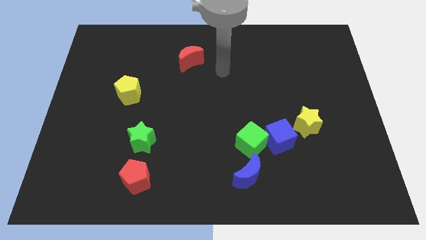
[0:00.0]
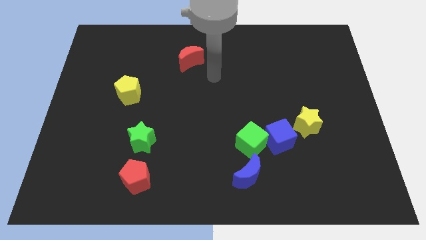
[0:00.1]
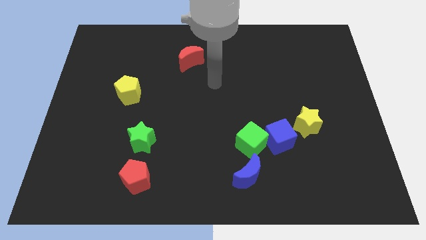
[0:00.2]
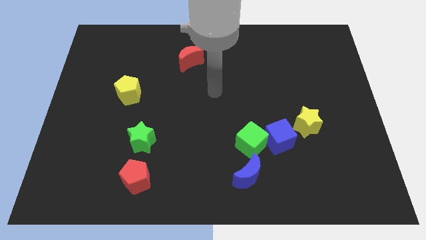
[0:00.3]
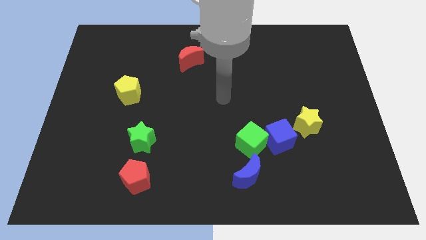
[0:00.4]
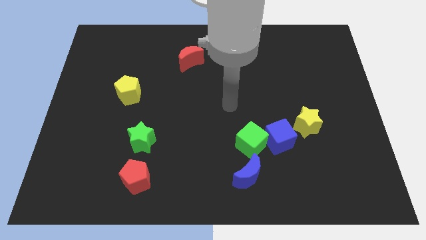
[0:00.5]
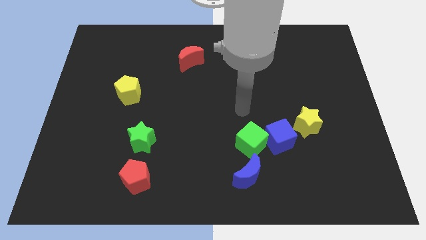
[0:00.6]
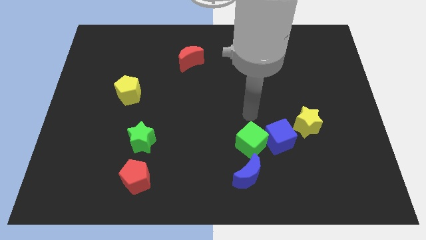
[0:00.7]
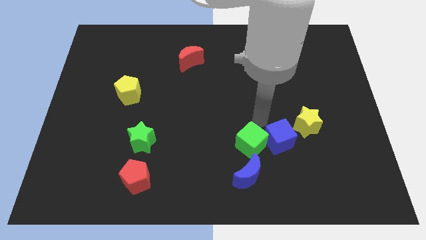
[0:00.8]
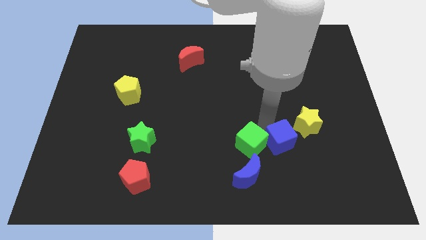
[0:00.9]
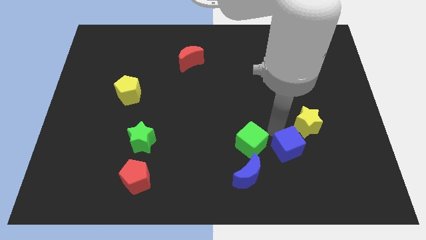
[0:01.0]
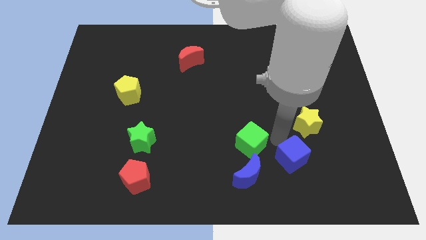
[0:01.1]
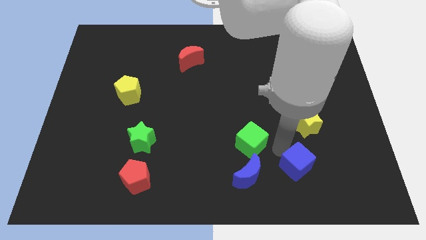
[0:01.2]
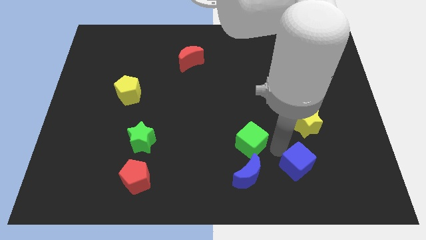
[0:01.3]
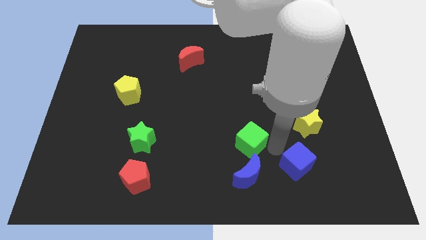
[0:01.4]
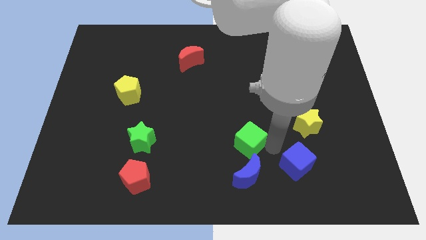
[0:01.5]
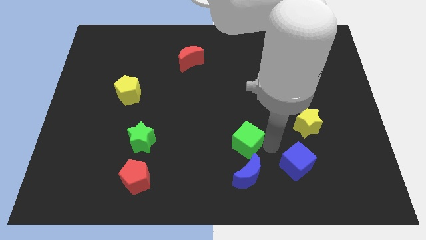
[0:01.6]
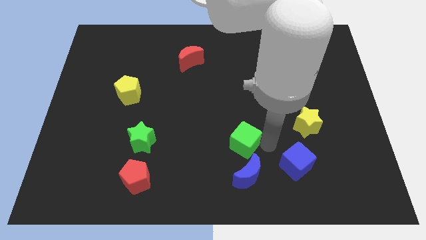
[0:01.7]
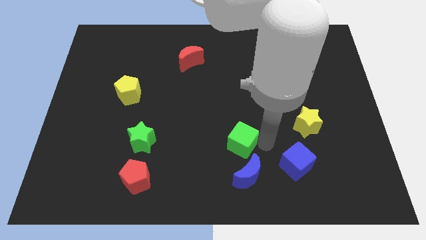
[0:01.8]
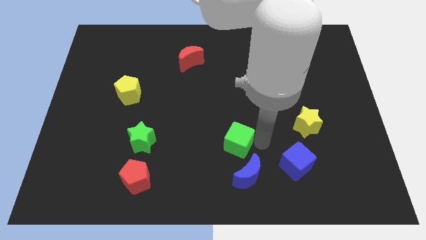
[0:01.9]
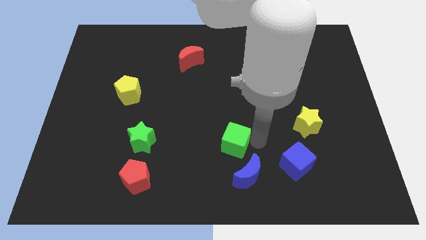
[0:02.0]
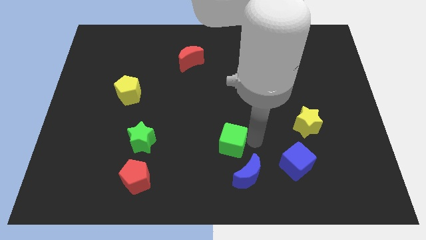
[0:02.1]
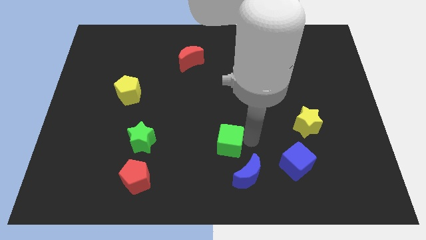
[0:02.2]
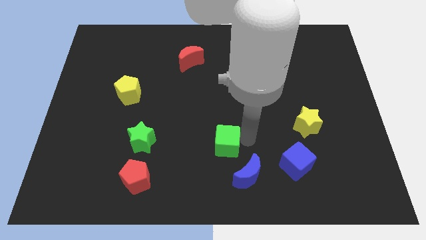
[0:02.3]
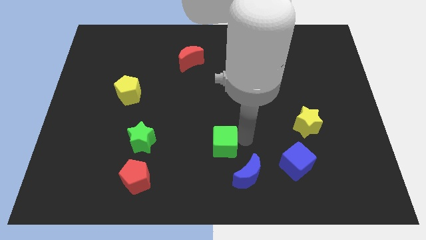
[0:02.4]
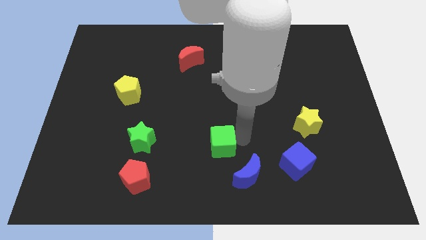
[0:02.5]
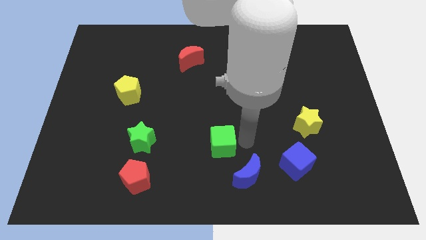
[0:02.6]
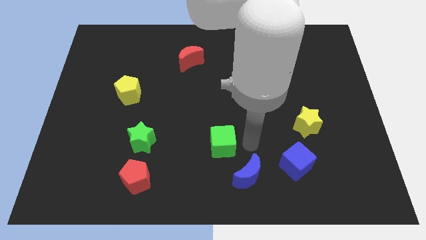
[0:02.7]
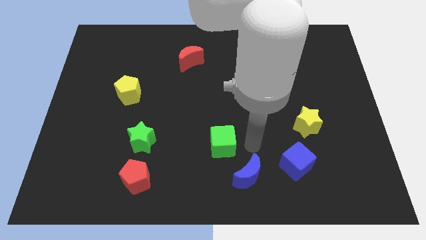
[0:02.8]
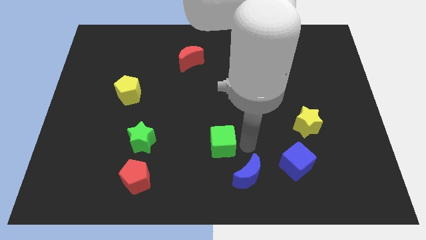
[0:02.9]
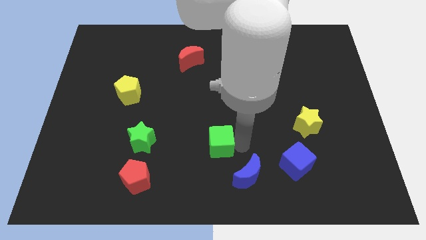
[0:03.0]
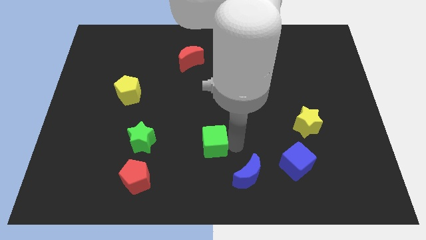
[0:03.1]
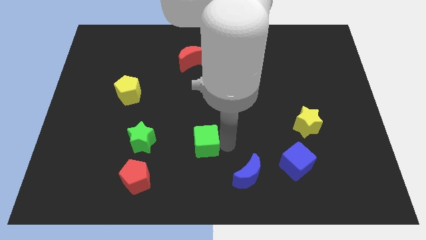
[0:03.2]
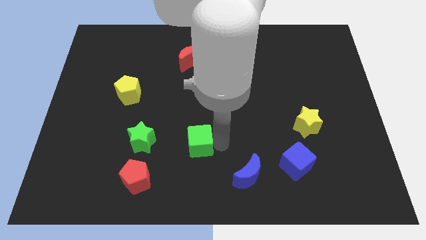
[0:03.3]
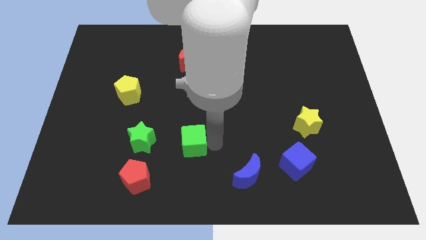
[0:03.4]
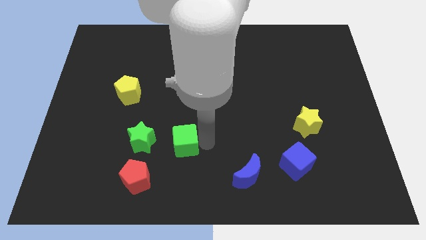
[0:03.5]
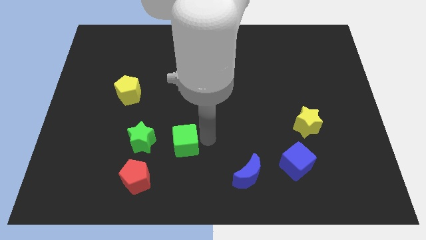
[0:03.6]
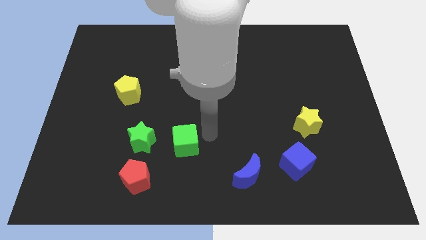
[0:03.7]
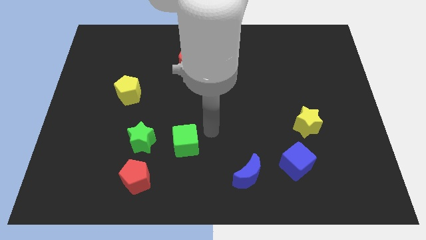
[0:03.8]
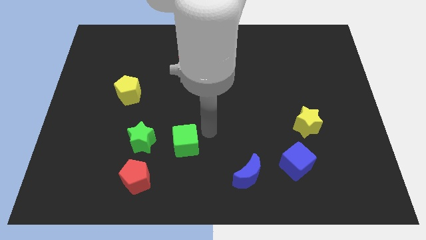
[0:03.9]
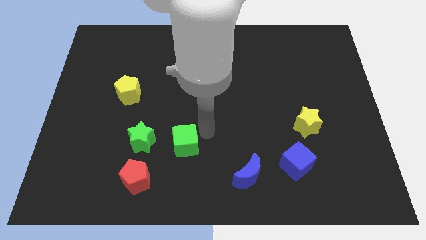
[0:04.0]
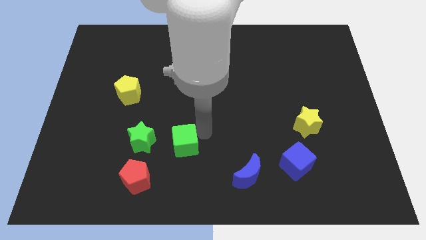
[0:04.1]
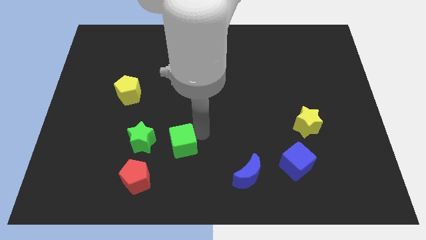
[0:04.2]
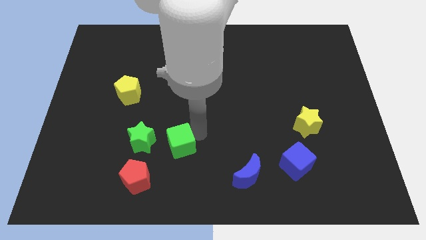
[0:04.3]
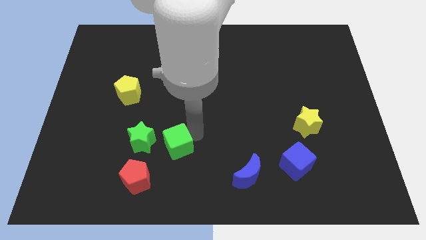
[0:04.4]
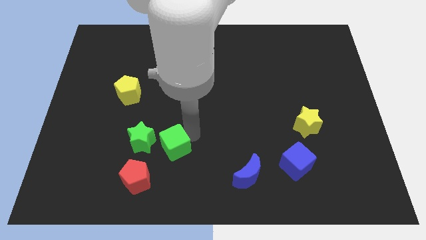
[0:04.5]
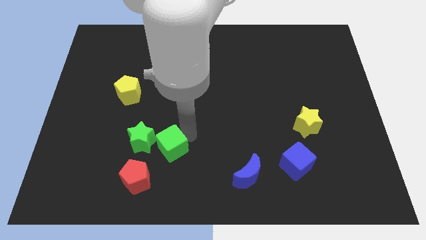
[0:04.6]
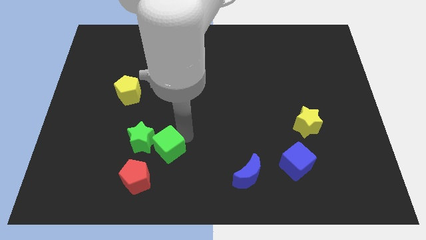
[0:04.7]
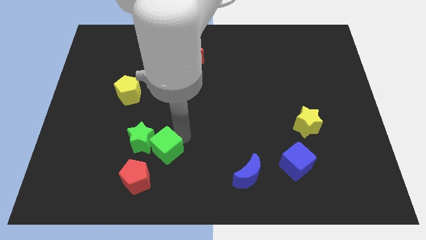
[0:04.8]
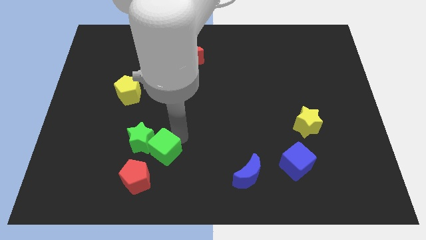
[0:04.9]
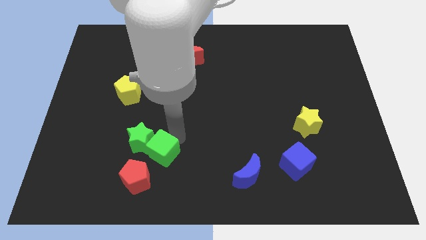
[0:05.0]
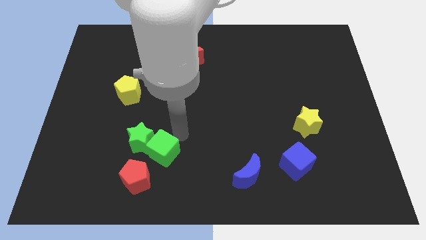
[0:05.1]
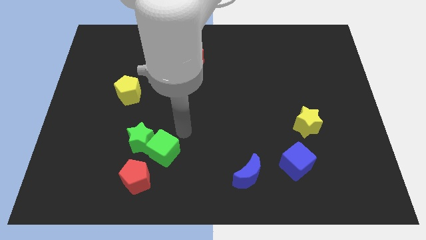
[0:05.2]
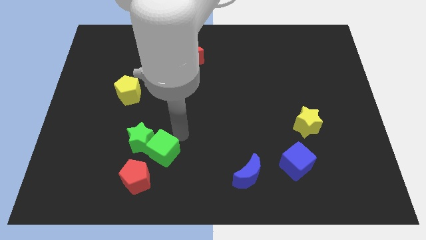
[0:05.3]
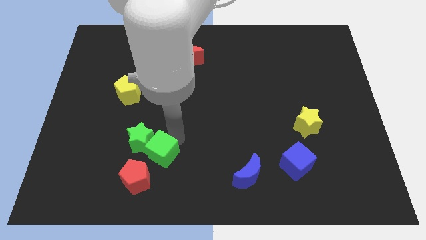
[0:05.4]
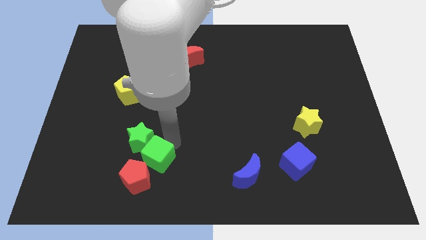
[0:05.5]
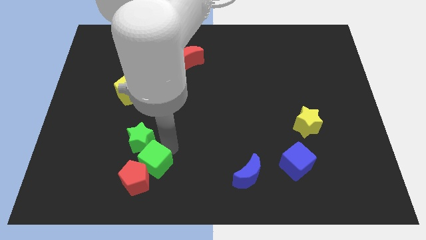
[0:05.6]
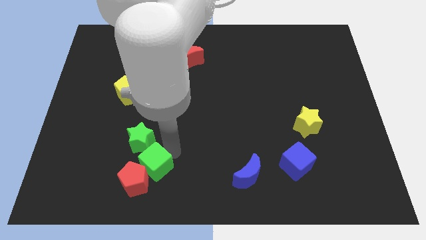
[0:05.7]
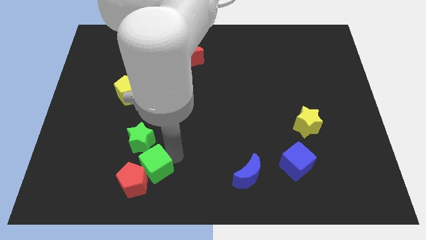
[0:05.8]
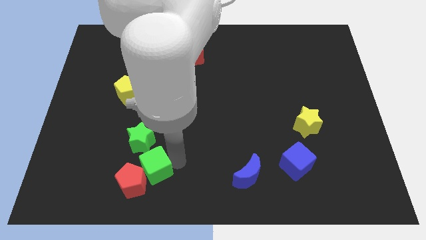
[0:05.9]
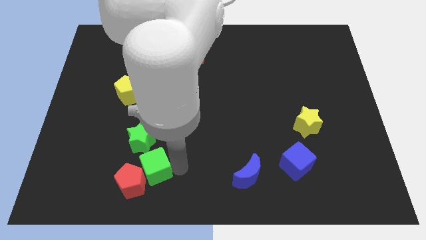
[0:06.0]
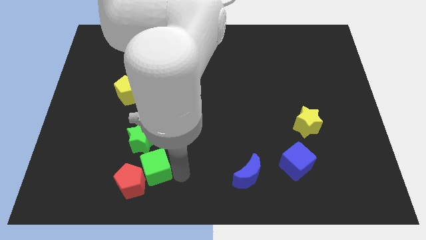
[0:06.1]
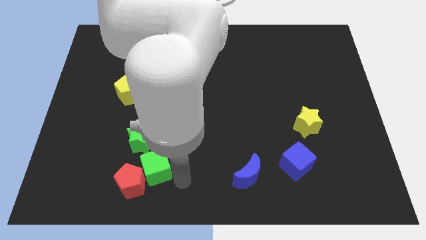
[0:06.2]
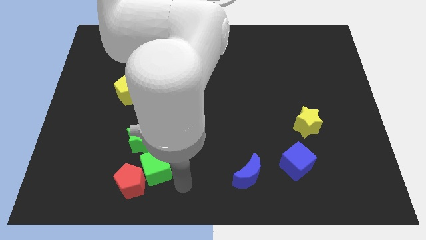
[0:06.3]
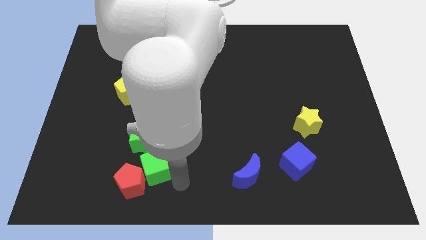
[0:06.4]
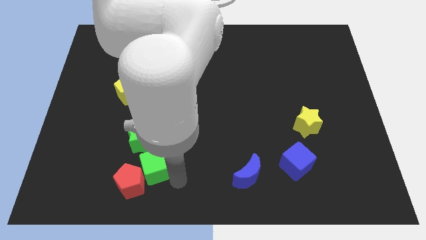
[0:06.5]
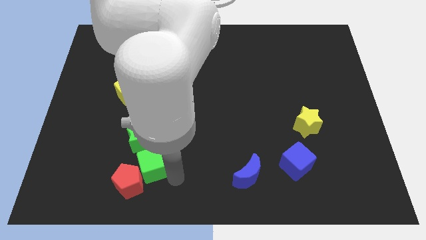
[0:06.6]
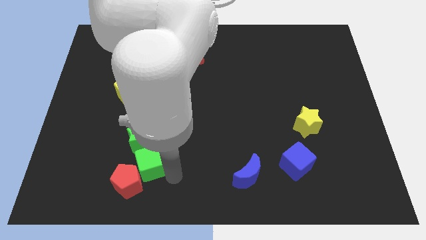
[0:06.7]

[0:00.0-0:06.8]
push the green cube left

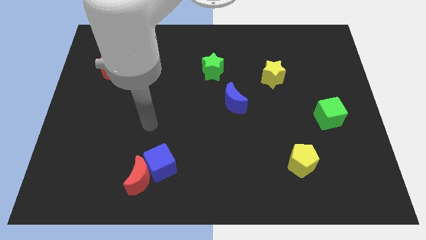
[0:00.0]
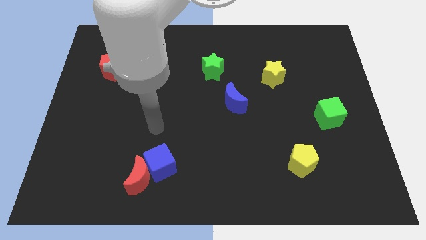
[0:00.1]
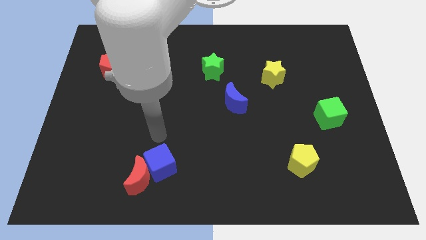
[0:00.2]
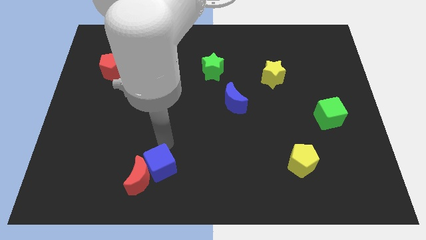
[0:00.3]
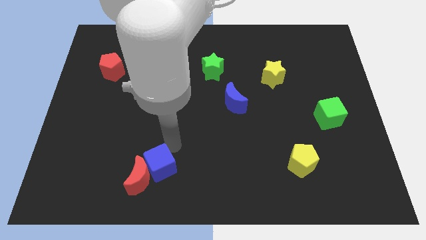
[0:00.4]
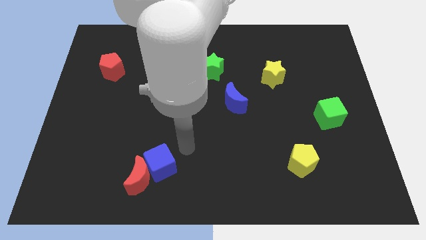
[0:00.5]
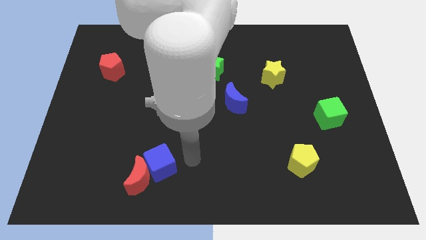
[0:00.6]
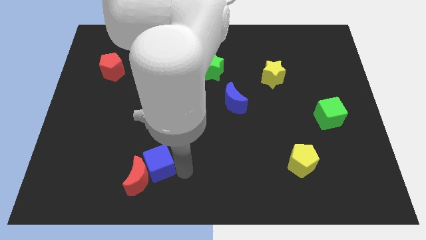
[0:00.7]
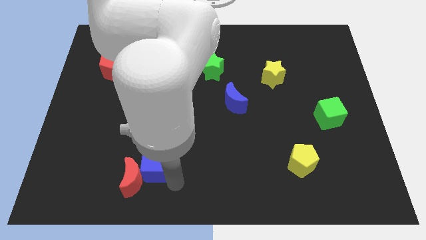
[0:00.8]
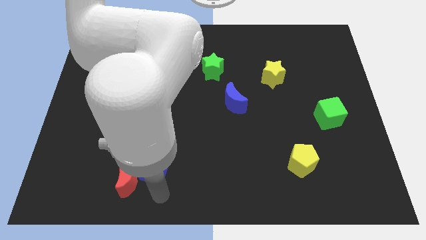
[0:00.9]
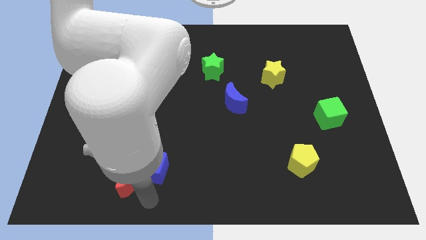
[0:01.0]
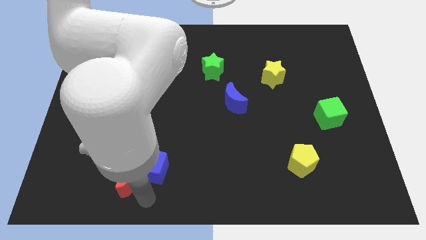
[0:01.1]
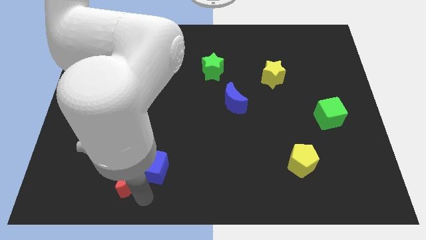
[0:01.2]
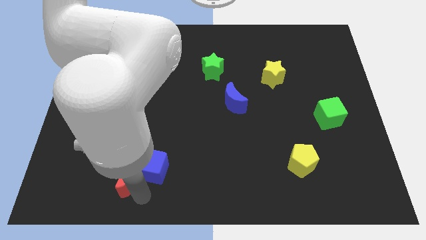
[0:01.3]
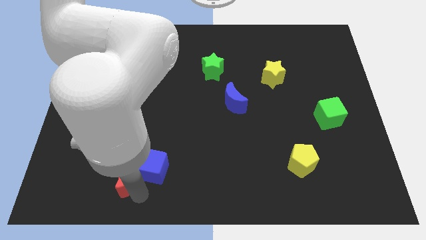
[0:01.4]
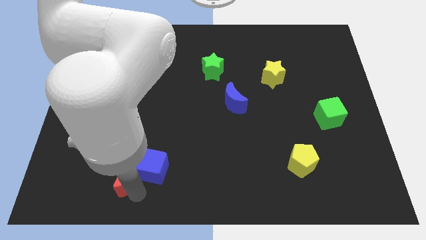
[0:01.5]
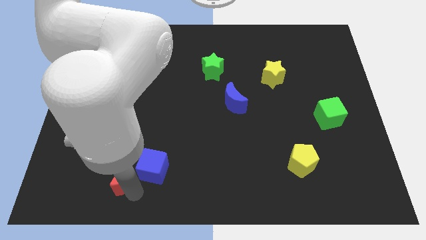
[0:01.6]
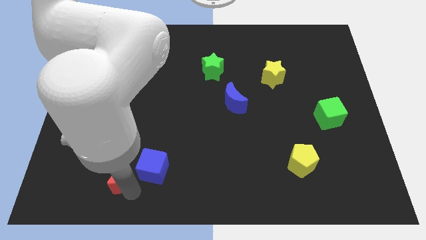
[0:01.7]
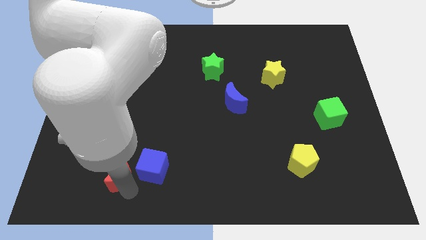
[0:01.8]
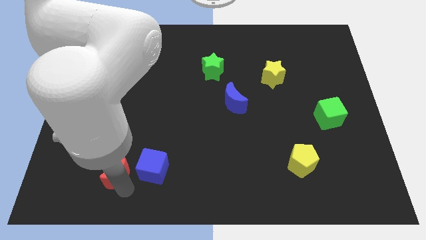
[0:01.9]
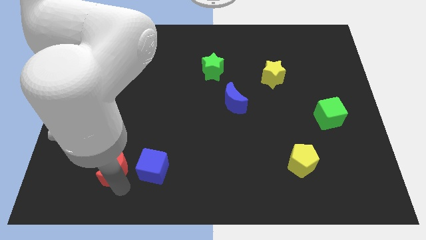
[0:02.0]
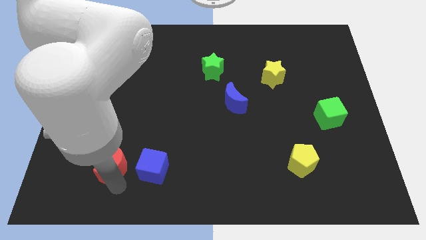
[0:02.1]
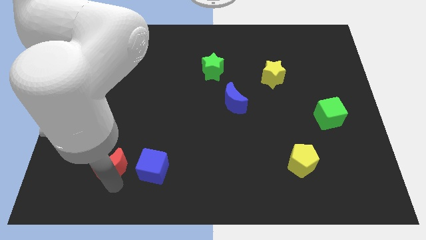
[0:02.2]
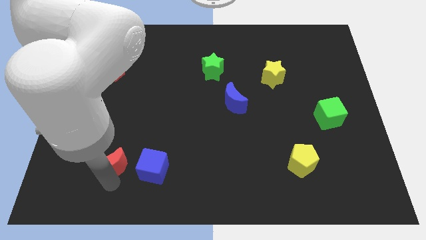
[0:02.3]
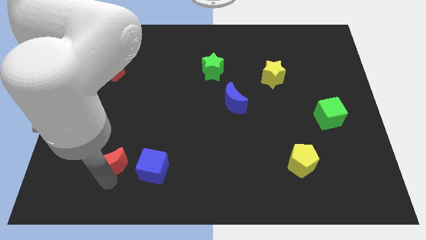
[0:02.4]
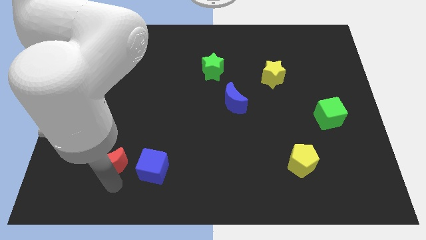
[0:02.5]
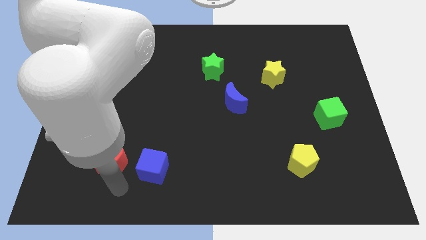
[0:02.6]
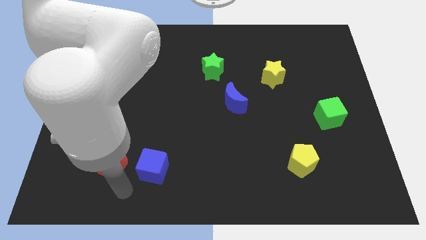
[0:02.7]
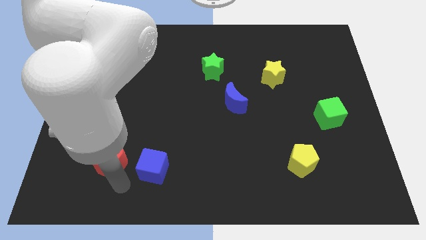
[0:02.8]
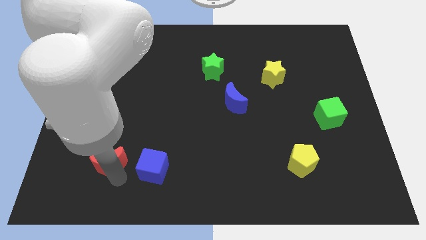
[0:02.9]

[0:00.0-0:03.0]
slightly push the red moon upwards and left
